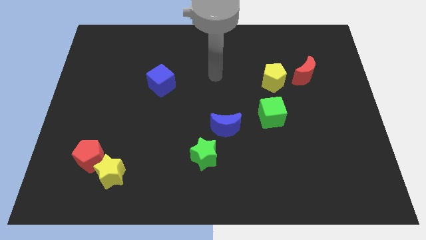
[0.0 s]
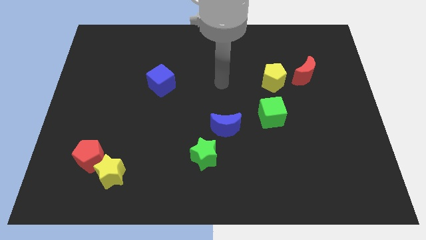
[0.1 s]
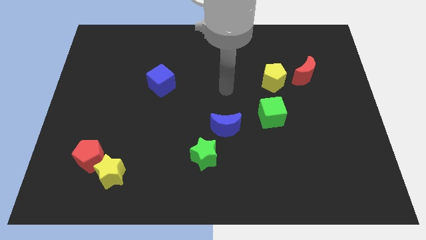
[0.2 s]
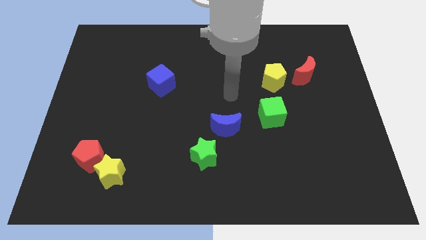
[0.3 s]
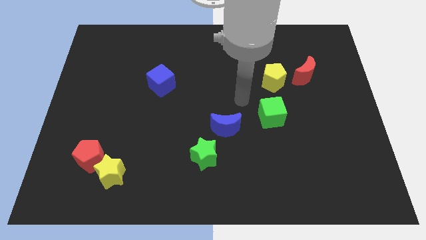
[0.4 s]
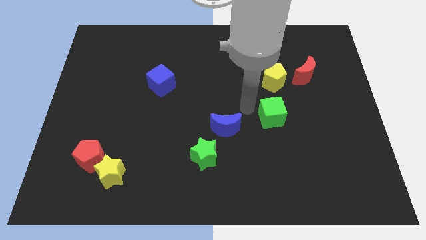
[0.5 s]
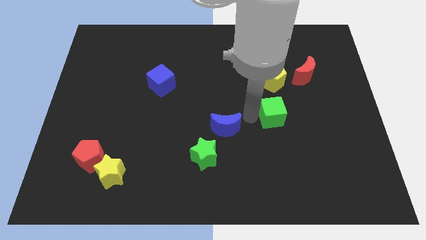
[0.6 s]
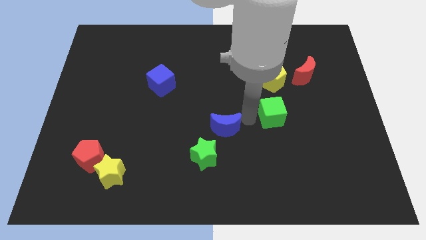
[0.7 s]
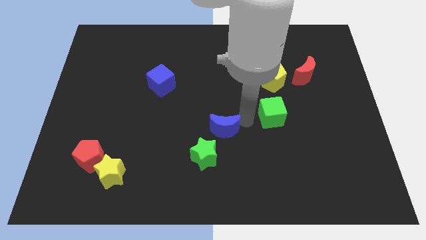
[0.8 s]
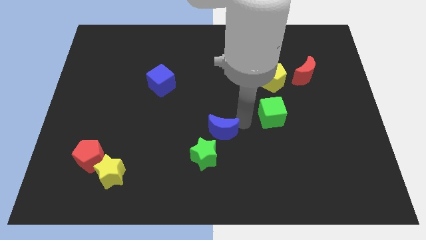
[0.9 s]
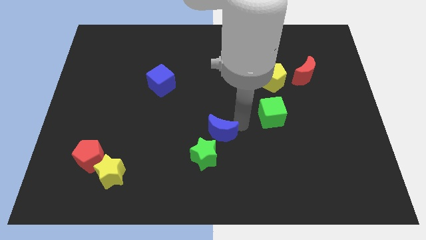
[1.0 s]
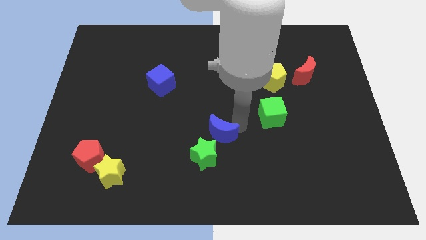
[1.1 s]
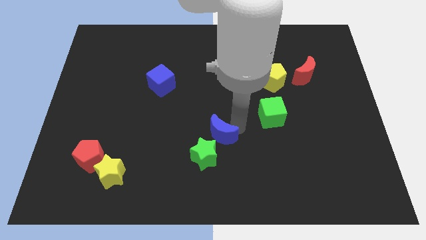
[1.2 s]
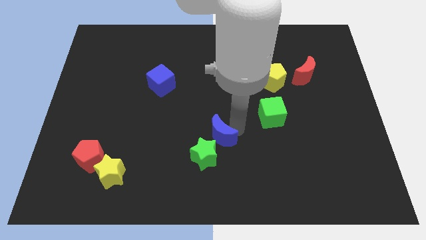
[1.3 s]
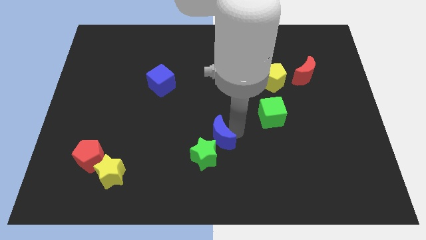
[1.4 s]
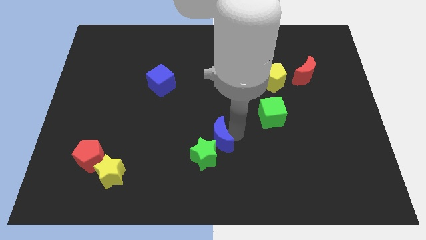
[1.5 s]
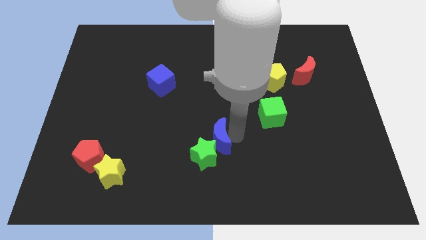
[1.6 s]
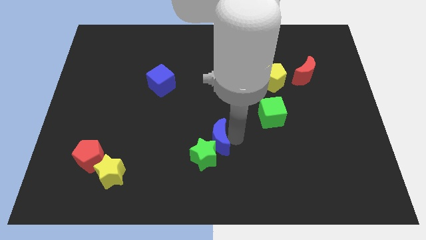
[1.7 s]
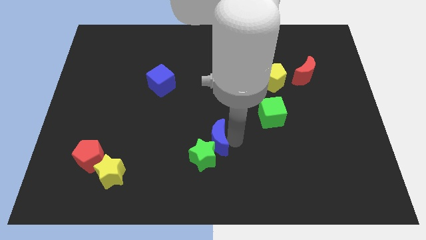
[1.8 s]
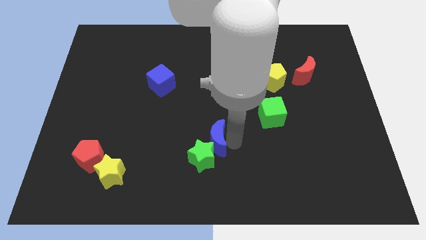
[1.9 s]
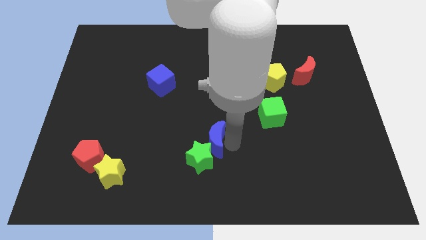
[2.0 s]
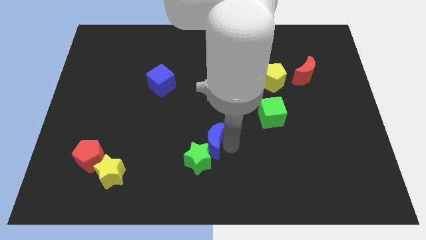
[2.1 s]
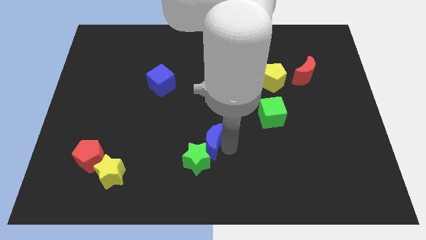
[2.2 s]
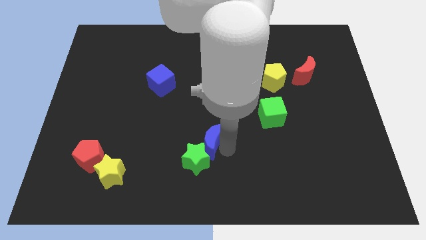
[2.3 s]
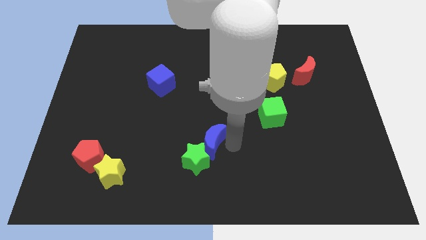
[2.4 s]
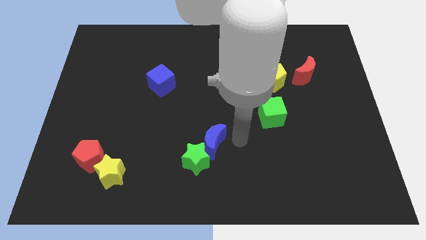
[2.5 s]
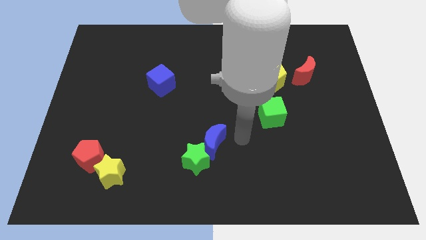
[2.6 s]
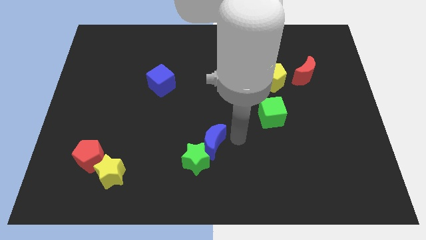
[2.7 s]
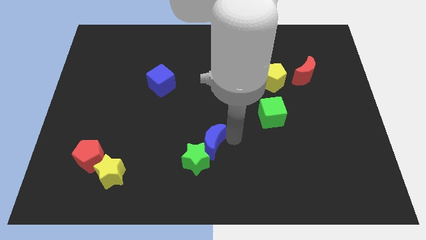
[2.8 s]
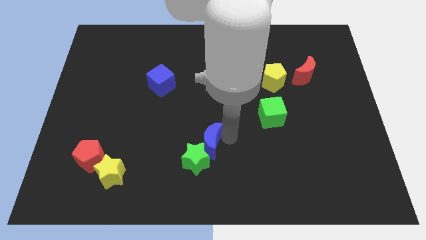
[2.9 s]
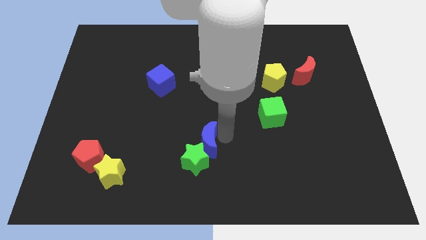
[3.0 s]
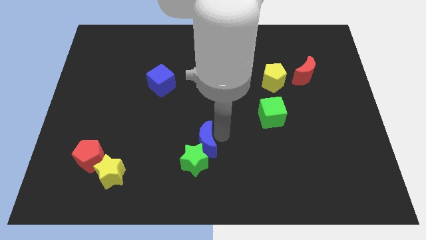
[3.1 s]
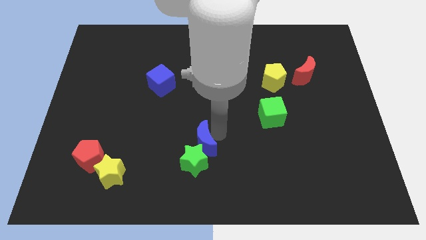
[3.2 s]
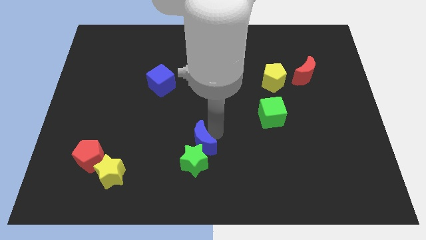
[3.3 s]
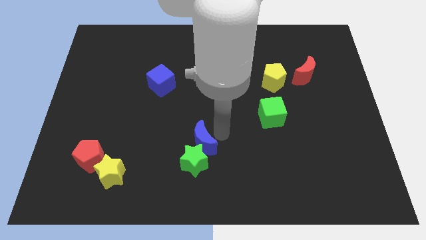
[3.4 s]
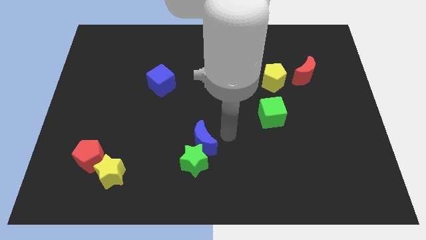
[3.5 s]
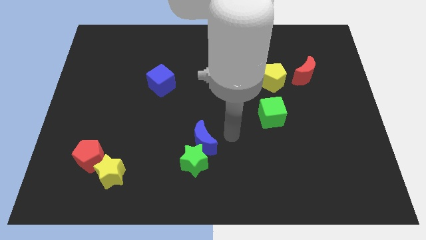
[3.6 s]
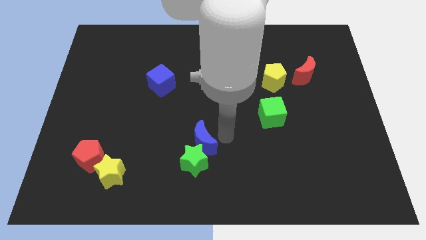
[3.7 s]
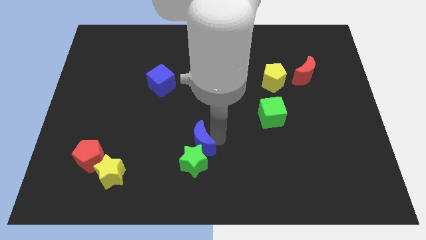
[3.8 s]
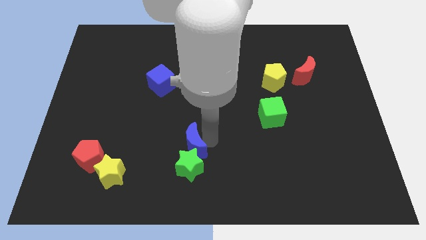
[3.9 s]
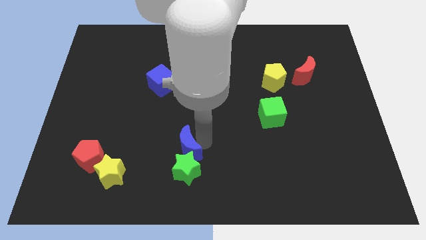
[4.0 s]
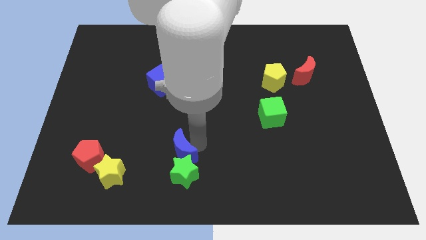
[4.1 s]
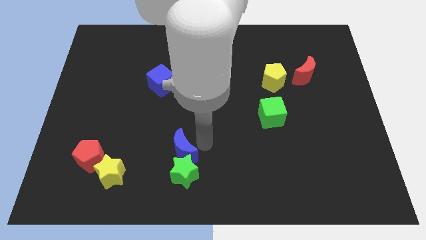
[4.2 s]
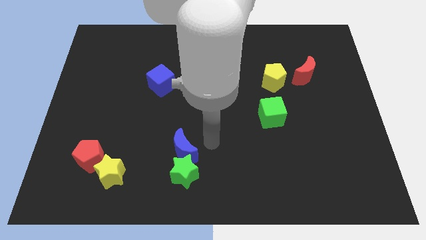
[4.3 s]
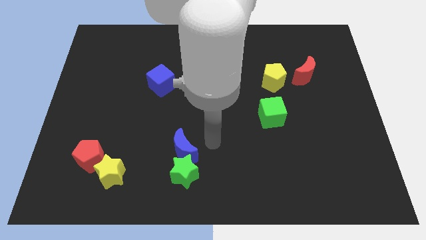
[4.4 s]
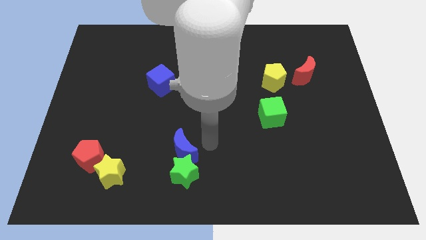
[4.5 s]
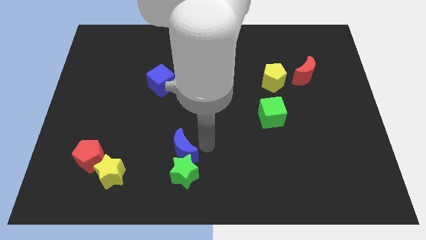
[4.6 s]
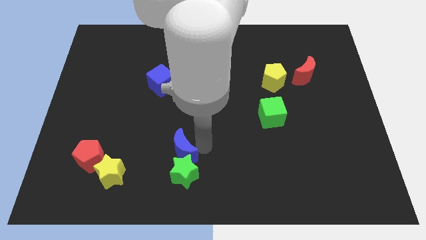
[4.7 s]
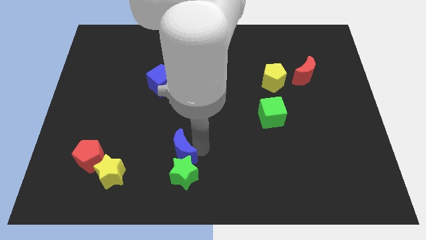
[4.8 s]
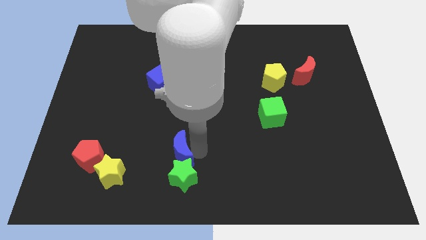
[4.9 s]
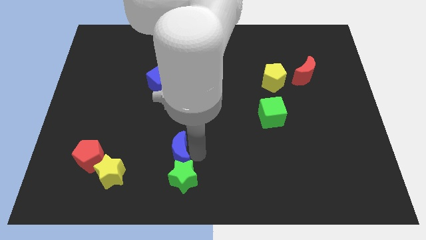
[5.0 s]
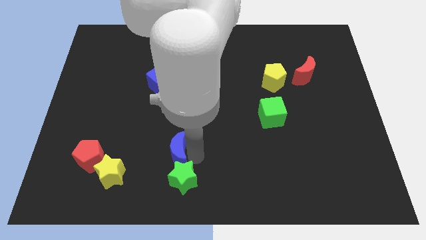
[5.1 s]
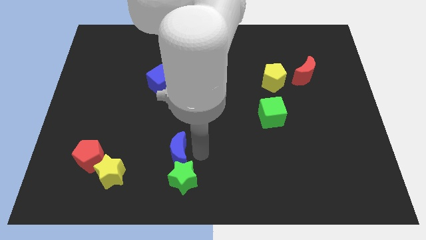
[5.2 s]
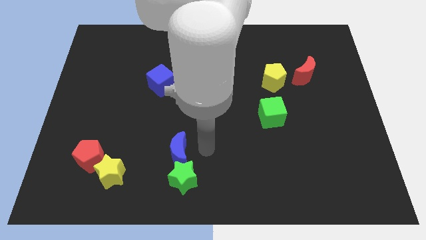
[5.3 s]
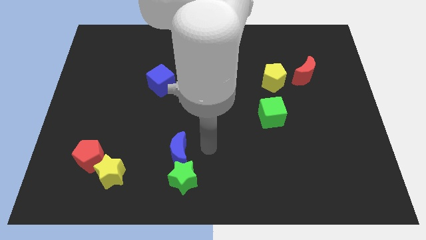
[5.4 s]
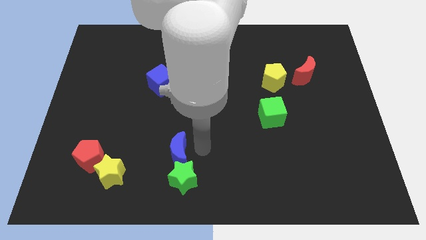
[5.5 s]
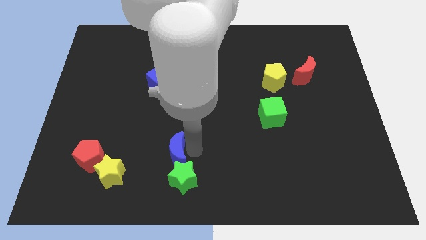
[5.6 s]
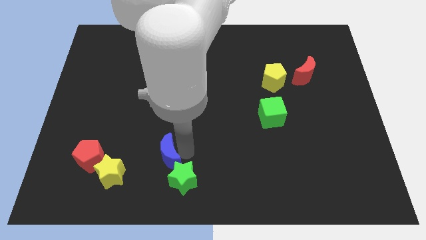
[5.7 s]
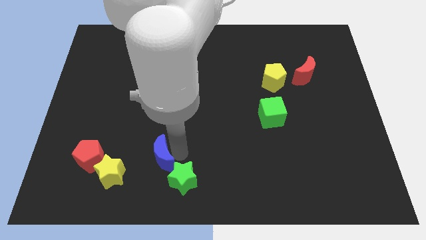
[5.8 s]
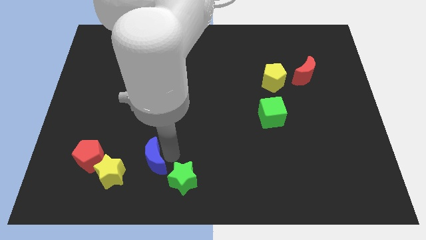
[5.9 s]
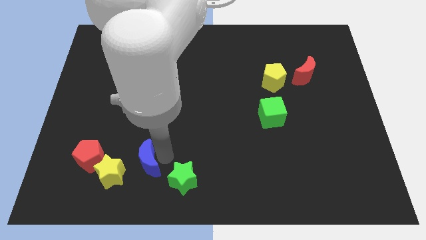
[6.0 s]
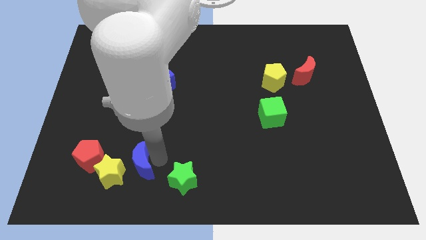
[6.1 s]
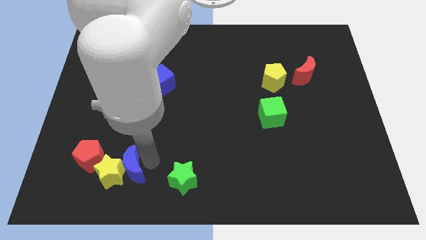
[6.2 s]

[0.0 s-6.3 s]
slide the blue moon towards the yellow star

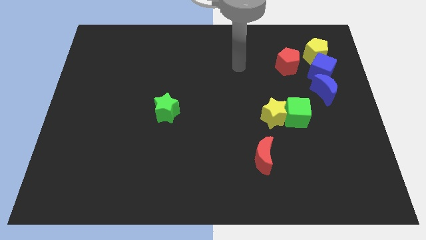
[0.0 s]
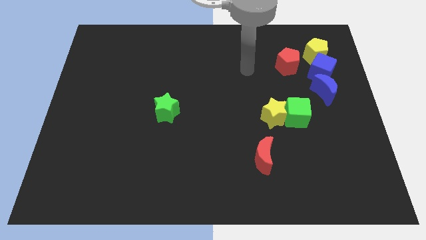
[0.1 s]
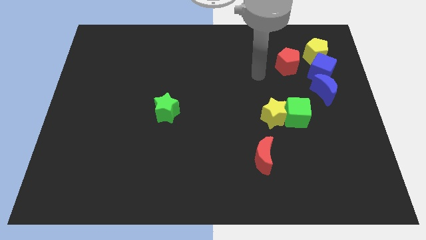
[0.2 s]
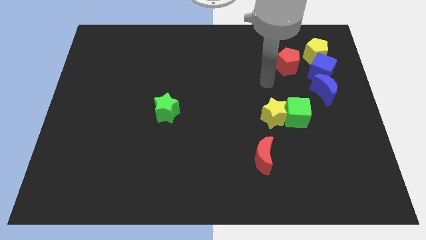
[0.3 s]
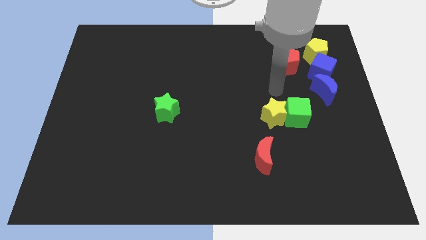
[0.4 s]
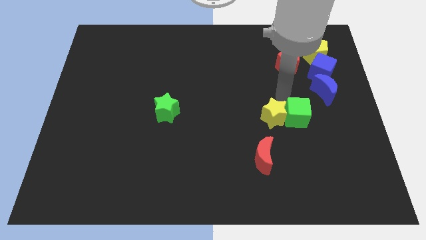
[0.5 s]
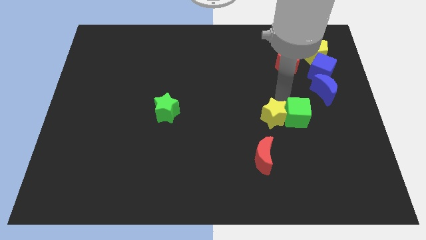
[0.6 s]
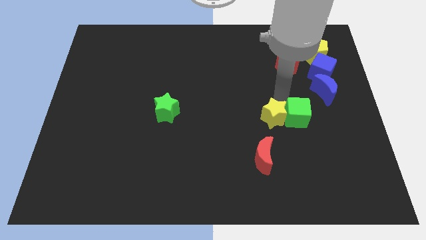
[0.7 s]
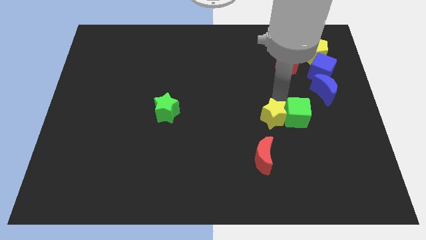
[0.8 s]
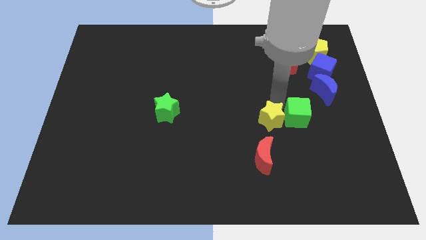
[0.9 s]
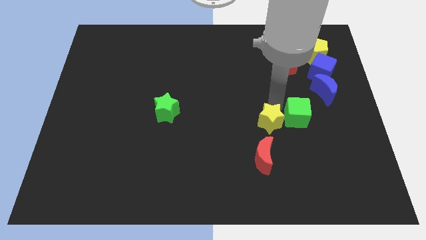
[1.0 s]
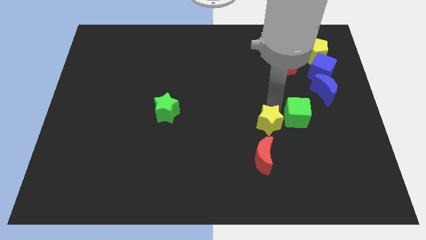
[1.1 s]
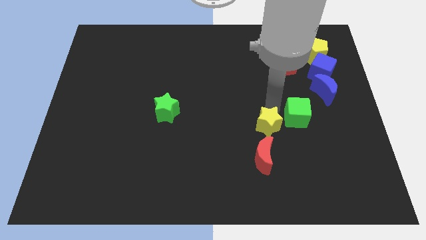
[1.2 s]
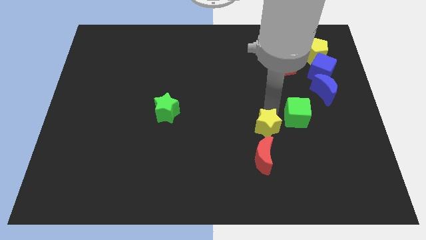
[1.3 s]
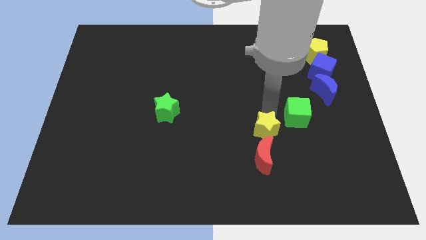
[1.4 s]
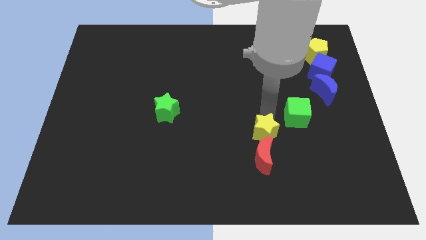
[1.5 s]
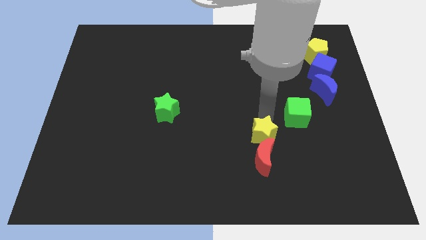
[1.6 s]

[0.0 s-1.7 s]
push the yellow star towards the red moon
